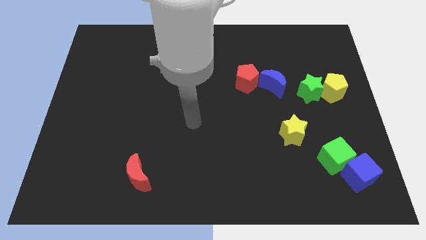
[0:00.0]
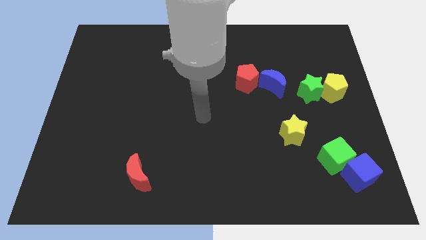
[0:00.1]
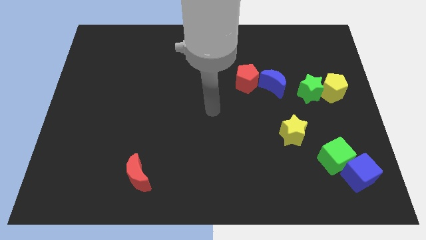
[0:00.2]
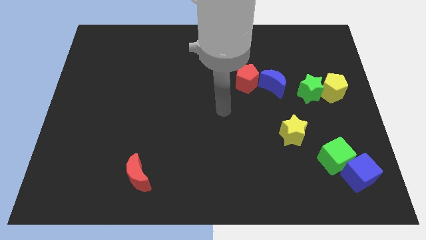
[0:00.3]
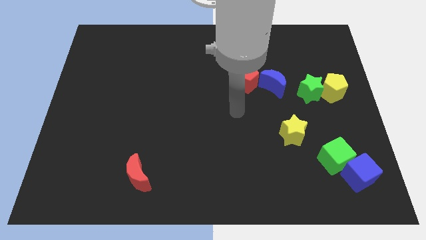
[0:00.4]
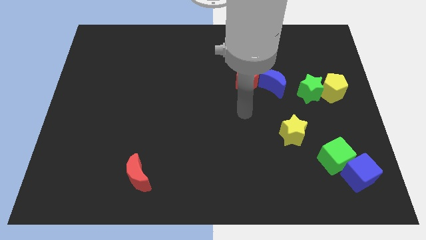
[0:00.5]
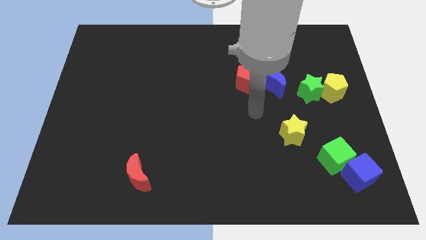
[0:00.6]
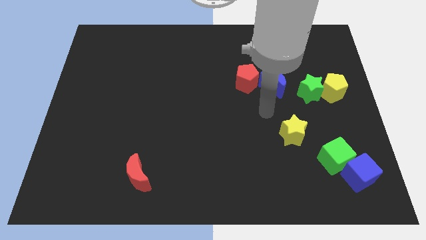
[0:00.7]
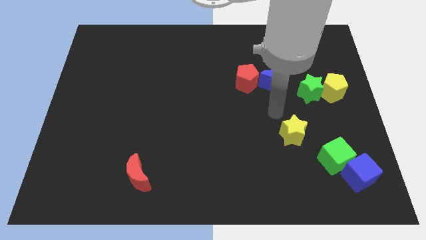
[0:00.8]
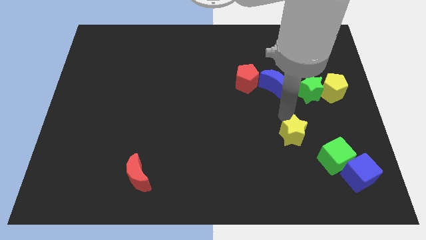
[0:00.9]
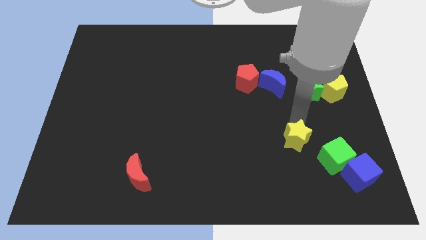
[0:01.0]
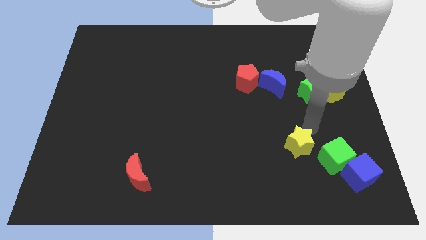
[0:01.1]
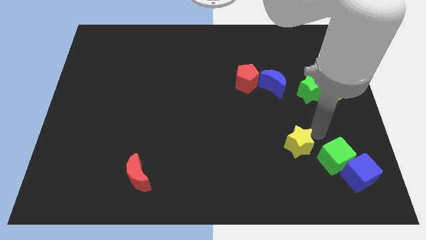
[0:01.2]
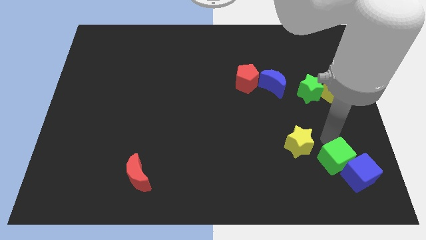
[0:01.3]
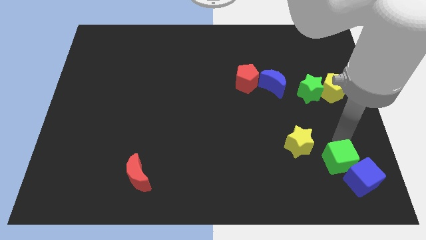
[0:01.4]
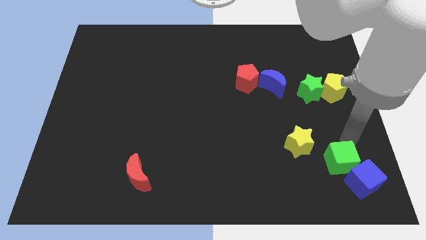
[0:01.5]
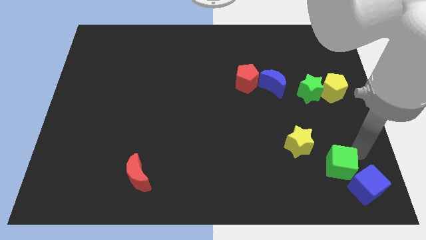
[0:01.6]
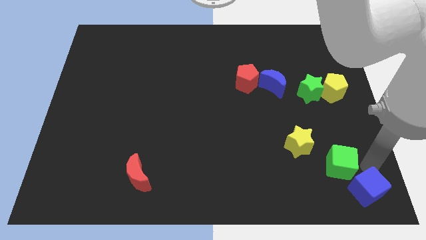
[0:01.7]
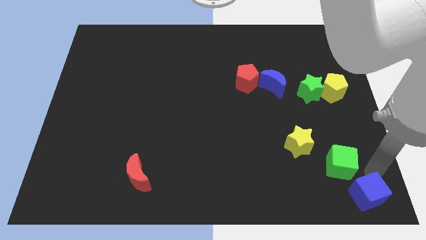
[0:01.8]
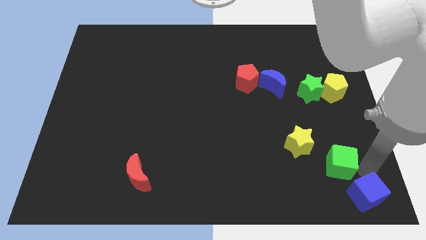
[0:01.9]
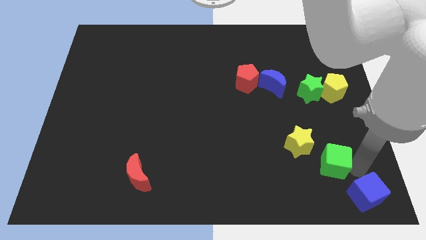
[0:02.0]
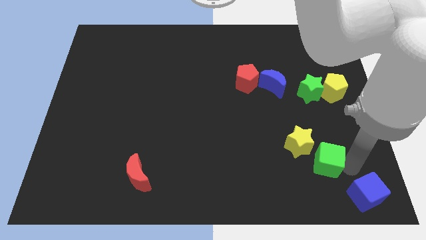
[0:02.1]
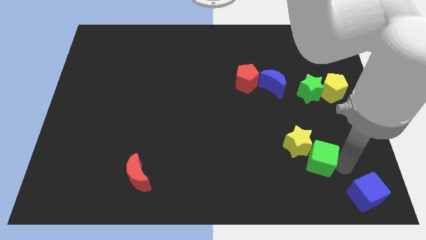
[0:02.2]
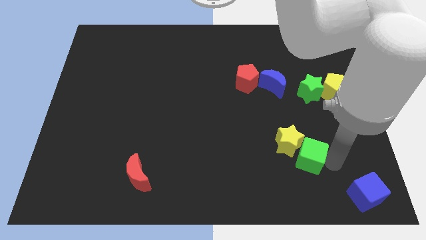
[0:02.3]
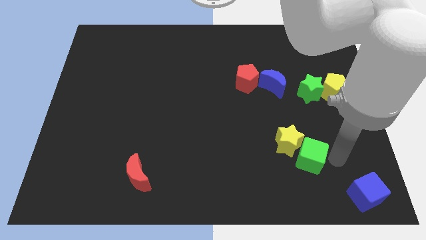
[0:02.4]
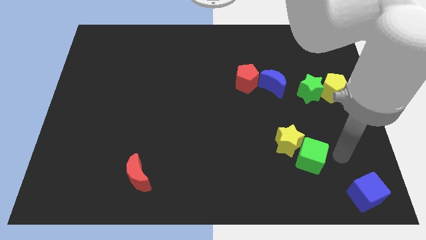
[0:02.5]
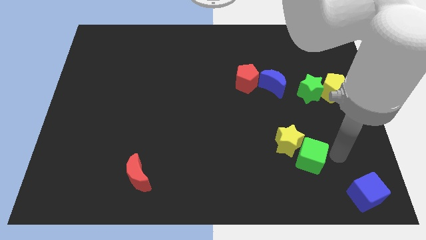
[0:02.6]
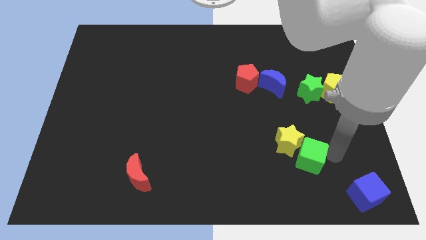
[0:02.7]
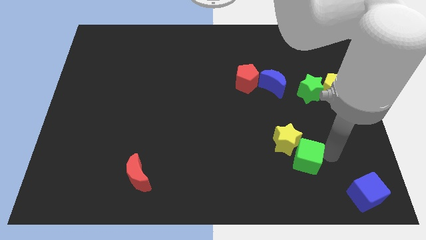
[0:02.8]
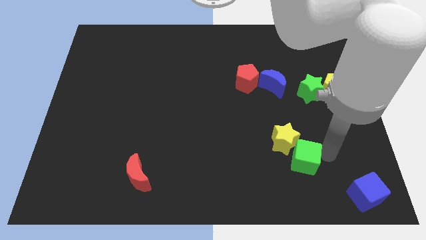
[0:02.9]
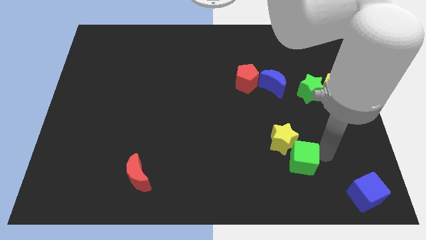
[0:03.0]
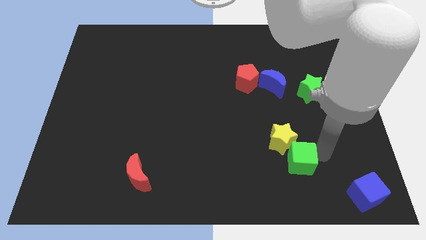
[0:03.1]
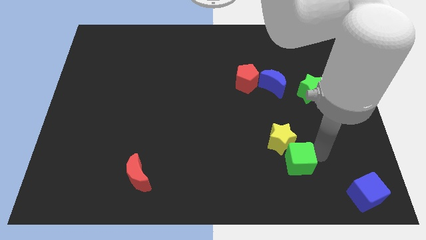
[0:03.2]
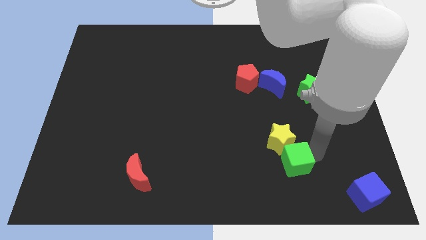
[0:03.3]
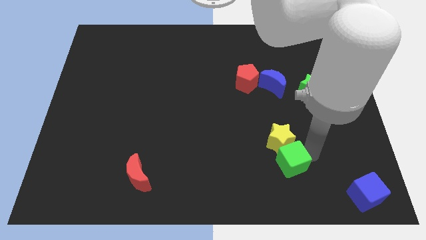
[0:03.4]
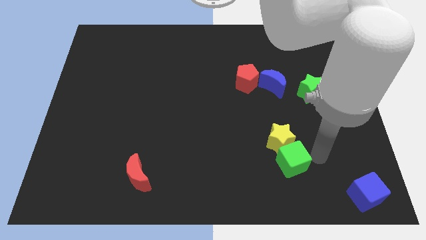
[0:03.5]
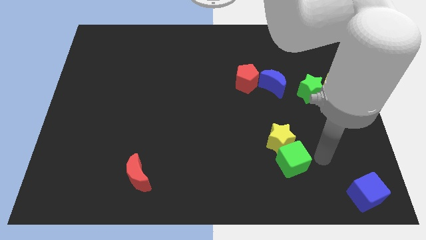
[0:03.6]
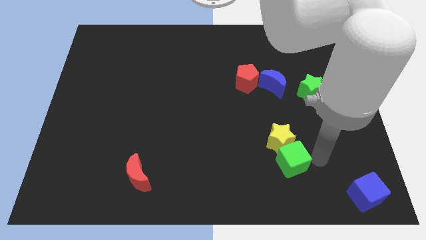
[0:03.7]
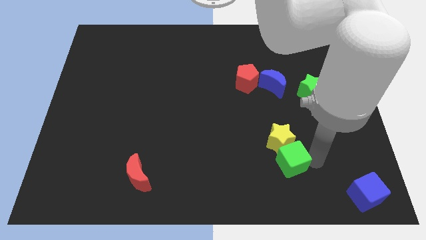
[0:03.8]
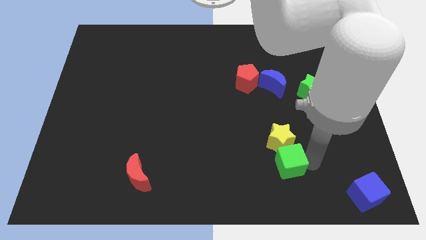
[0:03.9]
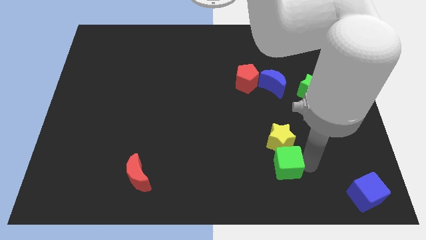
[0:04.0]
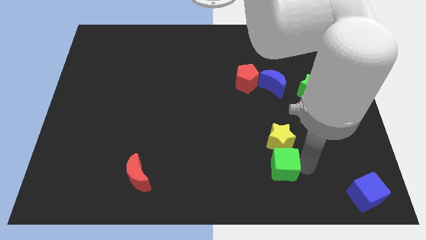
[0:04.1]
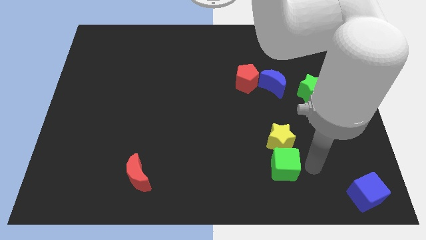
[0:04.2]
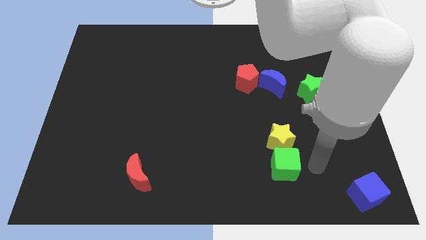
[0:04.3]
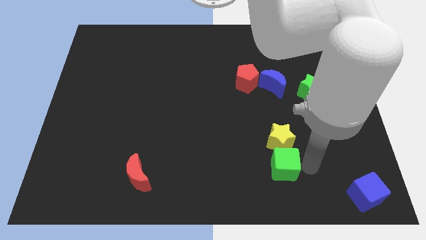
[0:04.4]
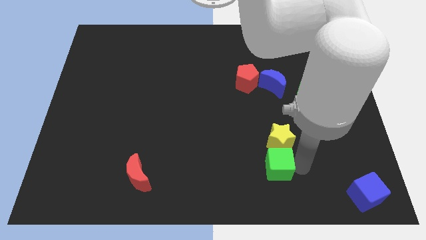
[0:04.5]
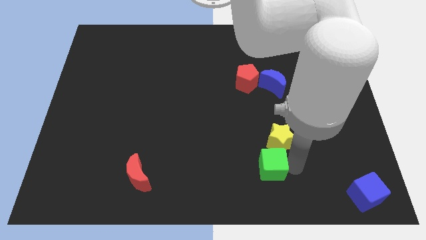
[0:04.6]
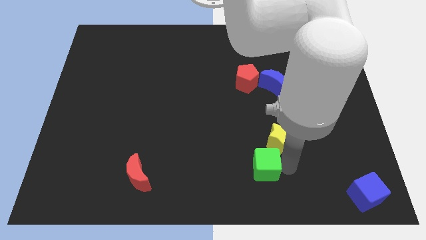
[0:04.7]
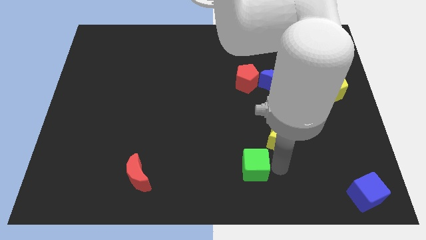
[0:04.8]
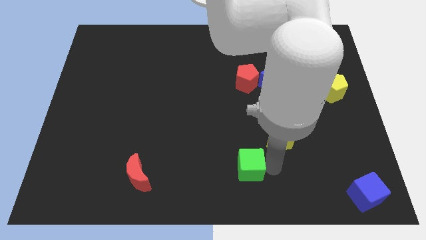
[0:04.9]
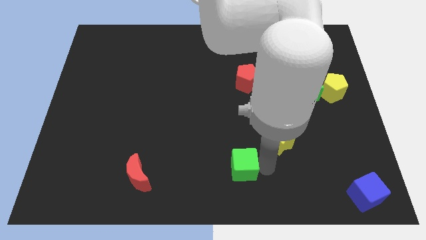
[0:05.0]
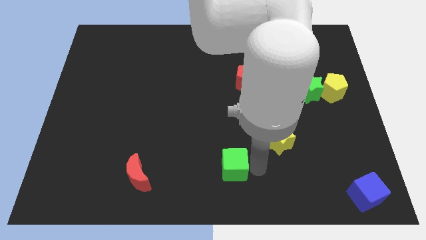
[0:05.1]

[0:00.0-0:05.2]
slide the green cube to the left

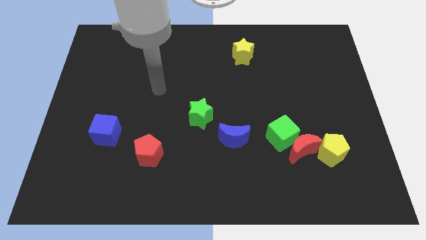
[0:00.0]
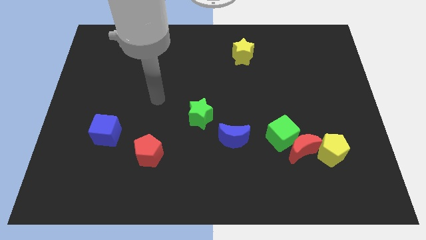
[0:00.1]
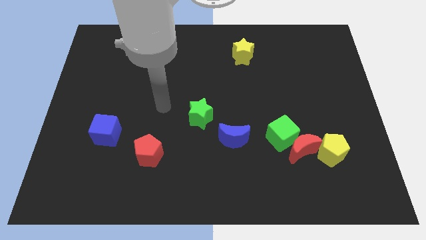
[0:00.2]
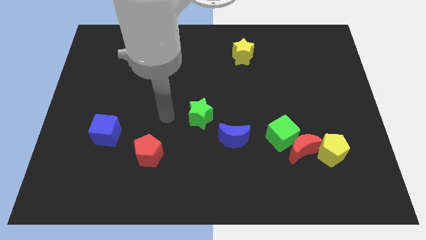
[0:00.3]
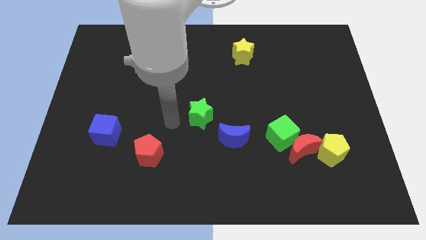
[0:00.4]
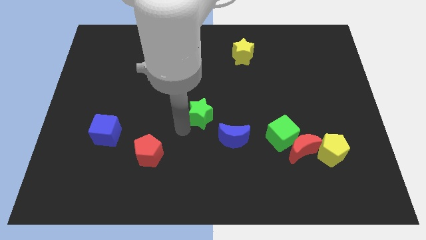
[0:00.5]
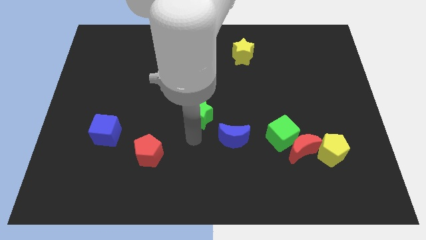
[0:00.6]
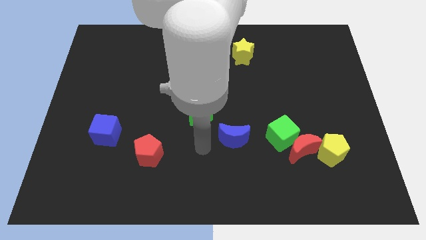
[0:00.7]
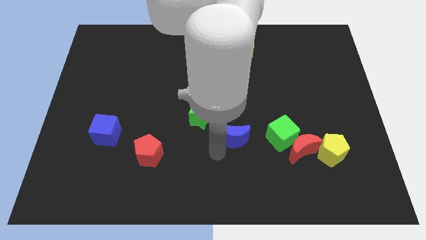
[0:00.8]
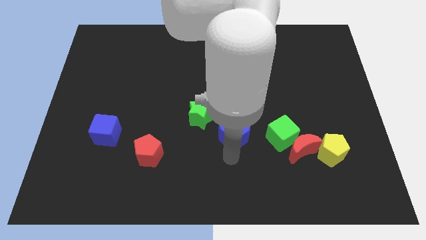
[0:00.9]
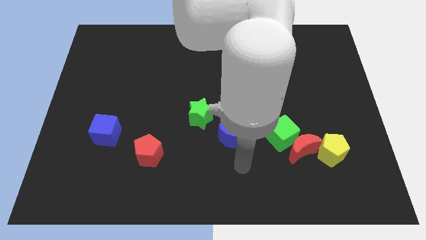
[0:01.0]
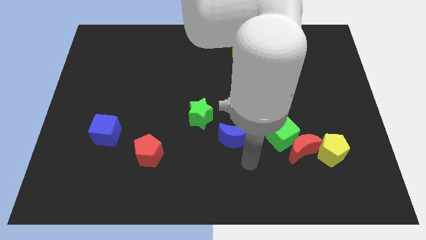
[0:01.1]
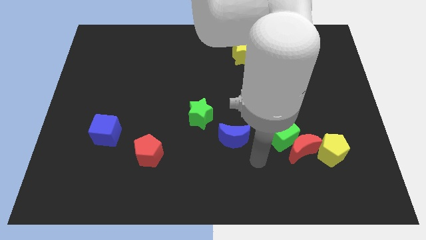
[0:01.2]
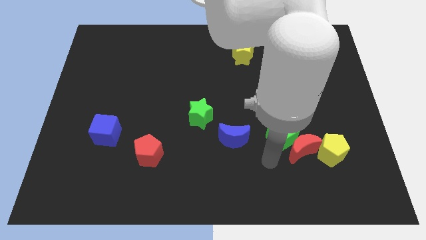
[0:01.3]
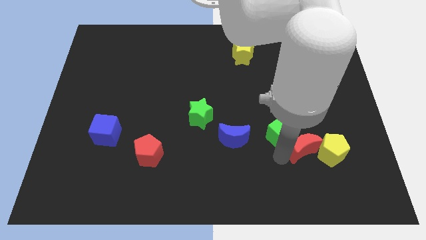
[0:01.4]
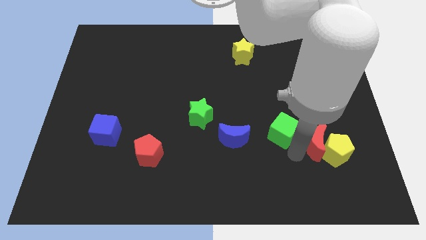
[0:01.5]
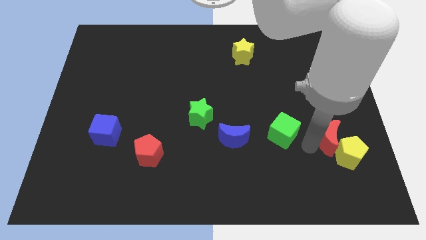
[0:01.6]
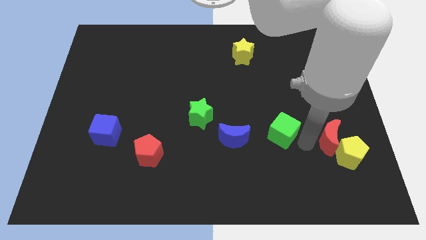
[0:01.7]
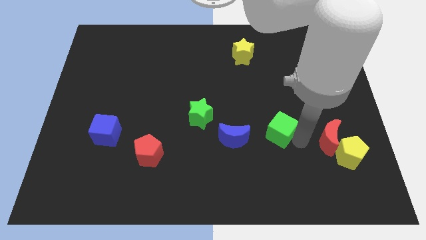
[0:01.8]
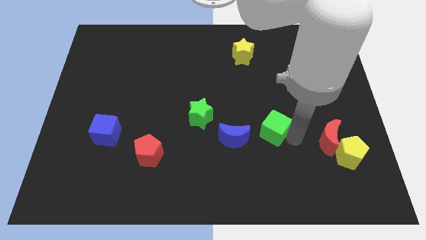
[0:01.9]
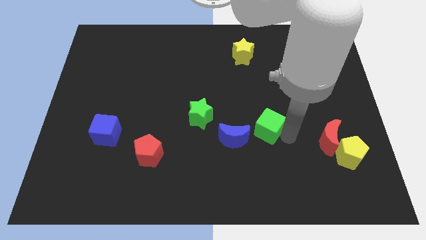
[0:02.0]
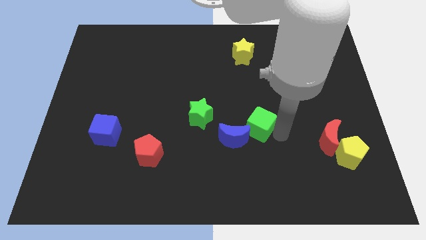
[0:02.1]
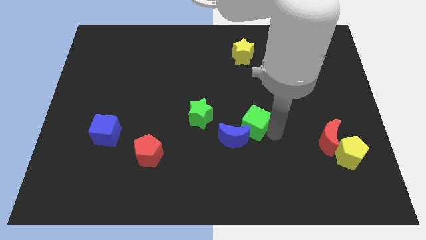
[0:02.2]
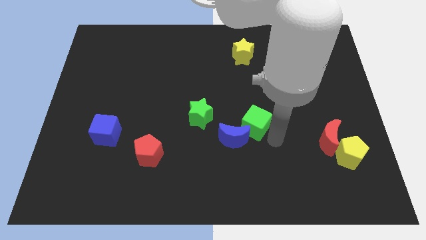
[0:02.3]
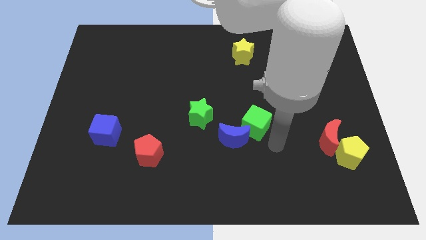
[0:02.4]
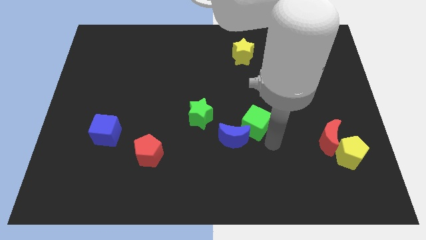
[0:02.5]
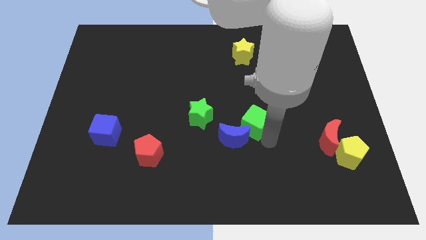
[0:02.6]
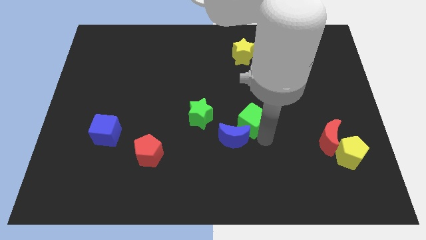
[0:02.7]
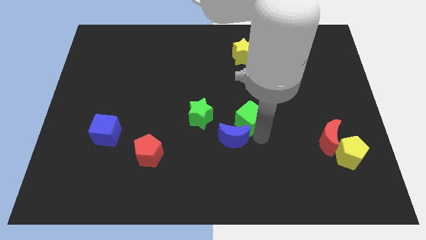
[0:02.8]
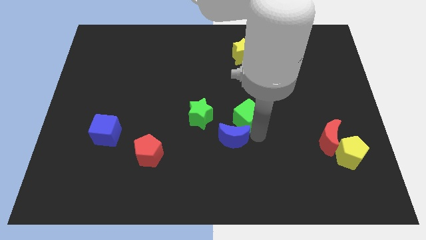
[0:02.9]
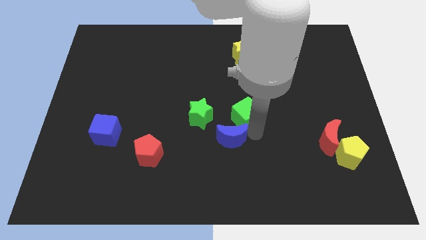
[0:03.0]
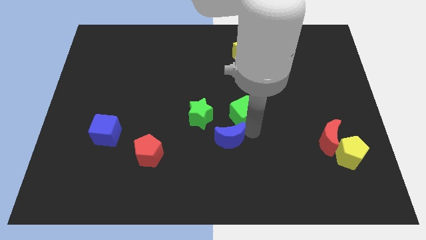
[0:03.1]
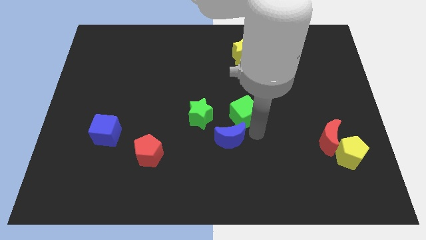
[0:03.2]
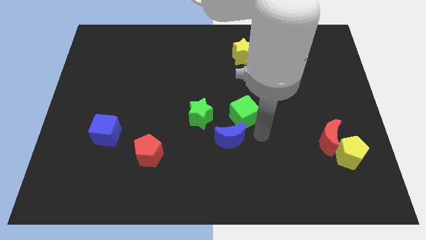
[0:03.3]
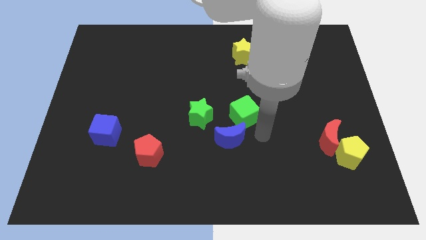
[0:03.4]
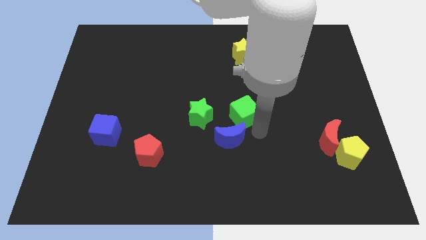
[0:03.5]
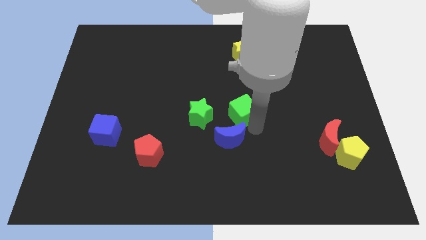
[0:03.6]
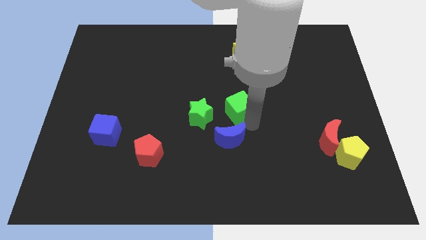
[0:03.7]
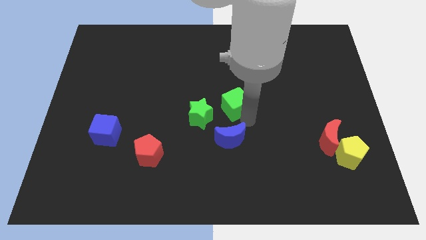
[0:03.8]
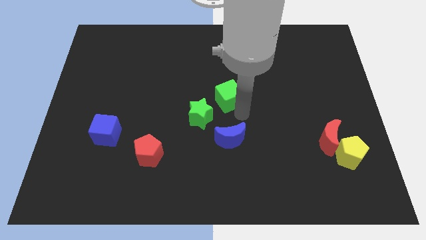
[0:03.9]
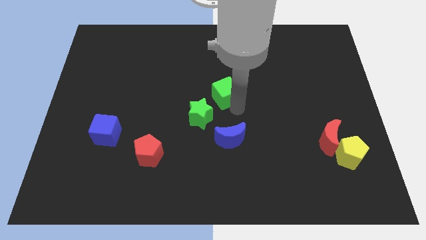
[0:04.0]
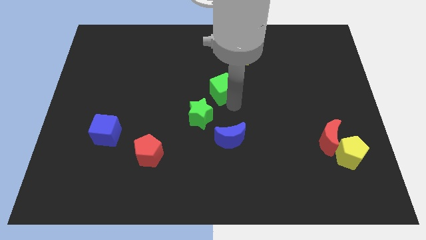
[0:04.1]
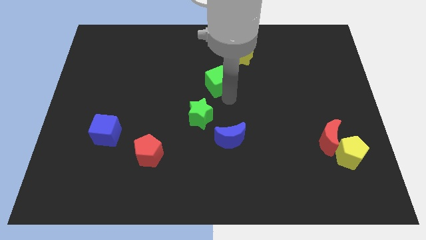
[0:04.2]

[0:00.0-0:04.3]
slide the green cube diagonally up and left
